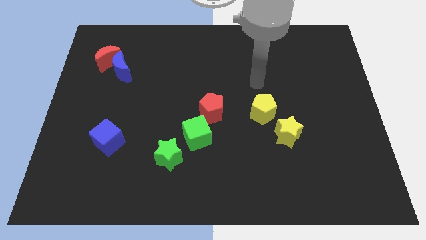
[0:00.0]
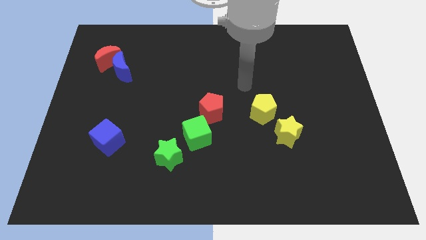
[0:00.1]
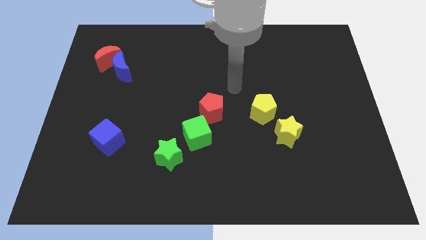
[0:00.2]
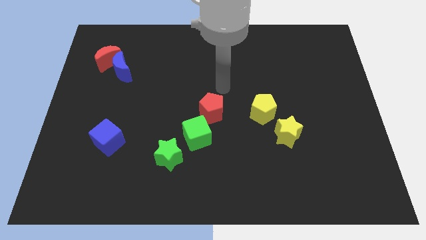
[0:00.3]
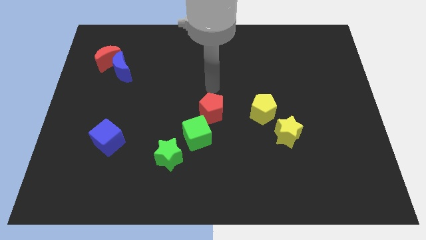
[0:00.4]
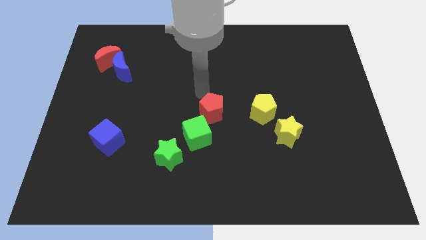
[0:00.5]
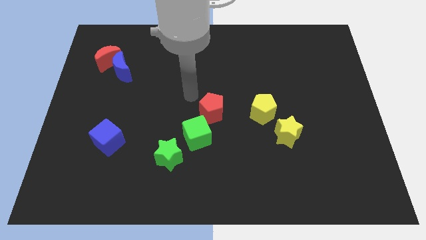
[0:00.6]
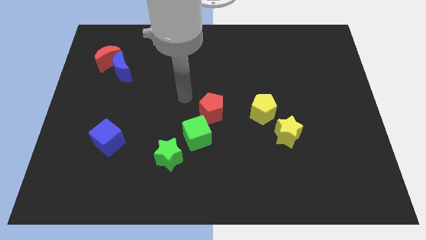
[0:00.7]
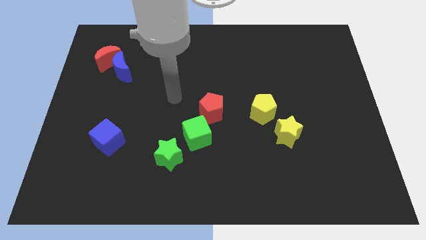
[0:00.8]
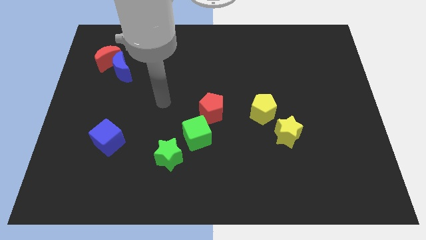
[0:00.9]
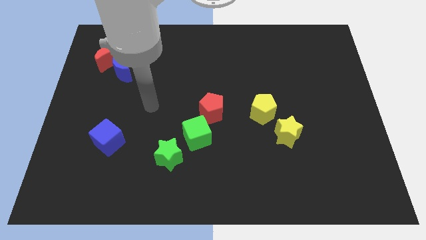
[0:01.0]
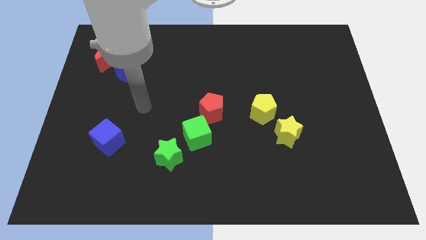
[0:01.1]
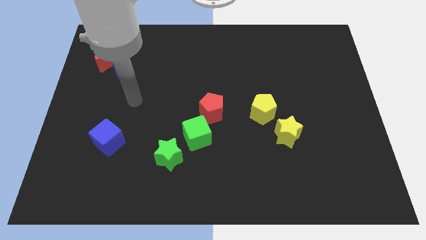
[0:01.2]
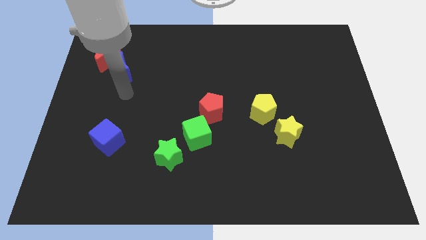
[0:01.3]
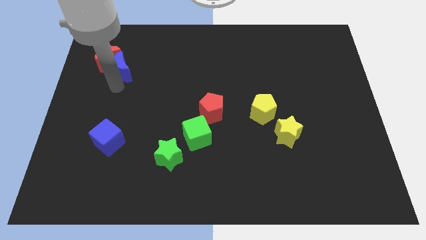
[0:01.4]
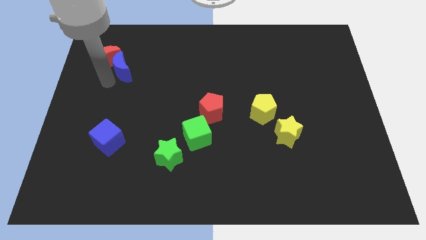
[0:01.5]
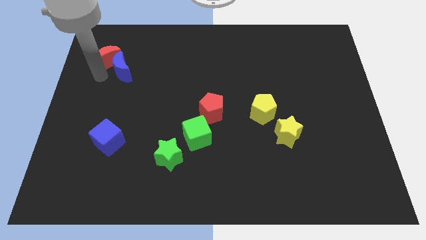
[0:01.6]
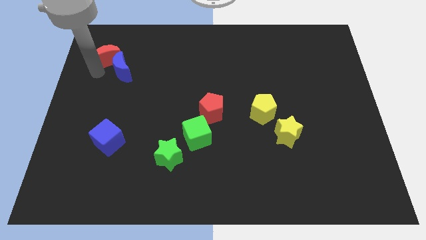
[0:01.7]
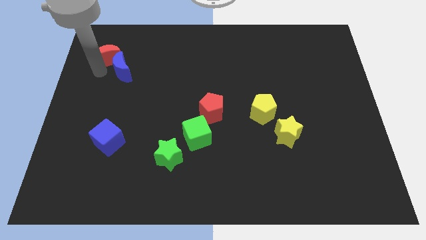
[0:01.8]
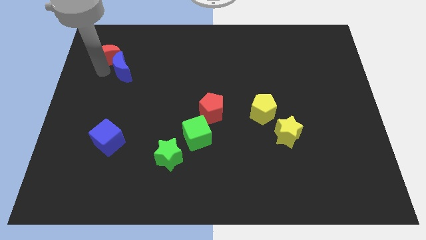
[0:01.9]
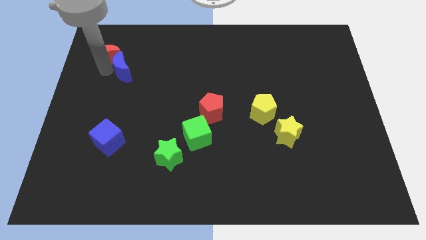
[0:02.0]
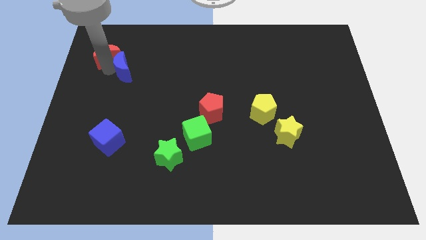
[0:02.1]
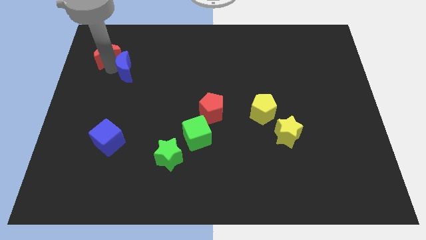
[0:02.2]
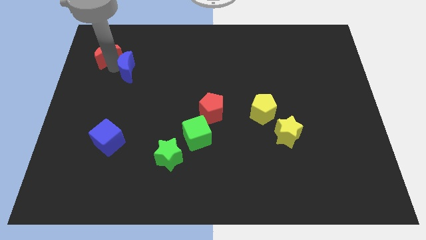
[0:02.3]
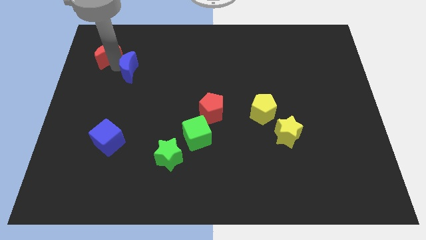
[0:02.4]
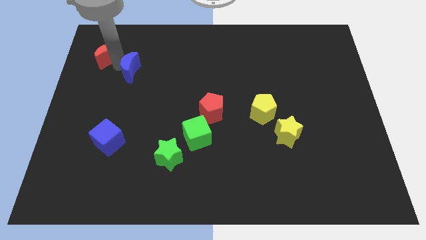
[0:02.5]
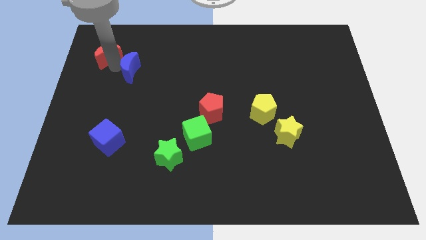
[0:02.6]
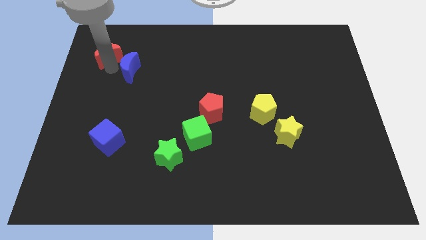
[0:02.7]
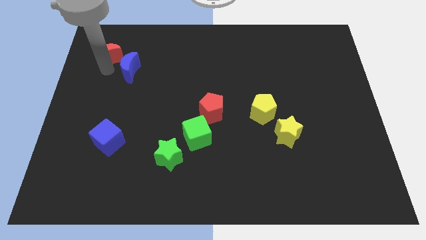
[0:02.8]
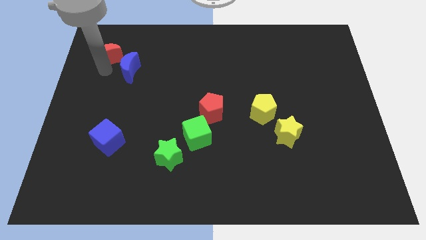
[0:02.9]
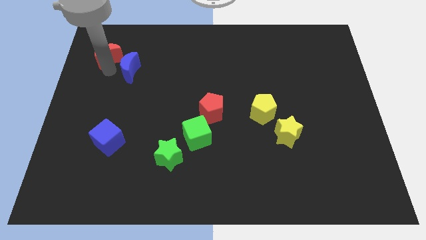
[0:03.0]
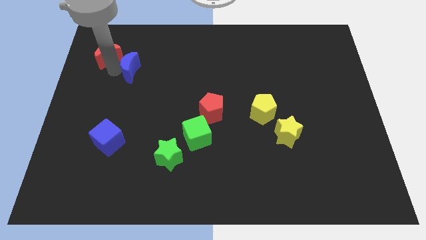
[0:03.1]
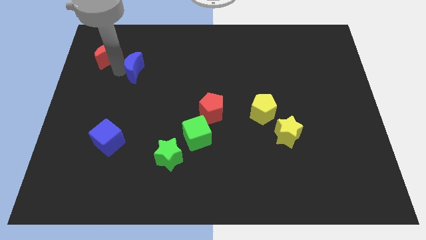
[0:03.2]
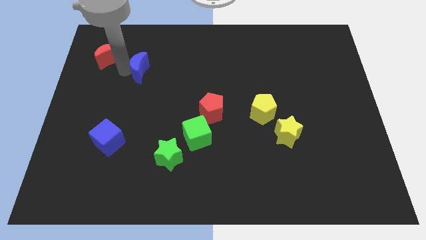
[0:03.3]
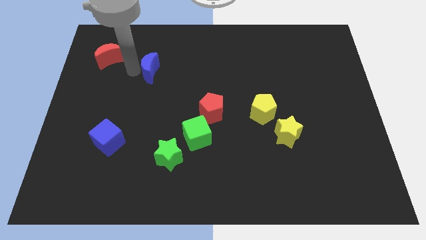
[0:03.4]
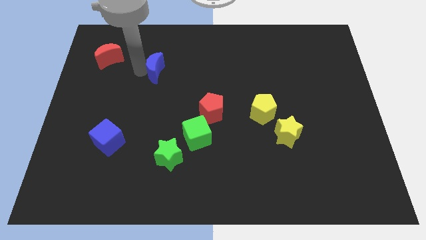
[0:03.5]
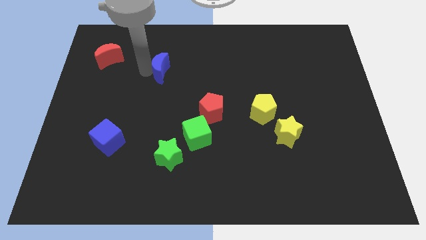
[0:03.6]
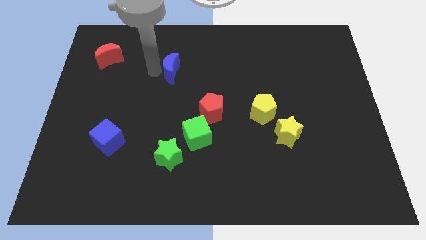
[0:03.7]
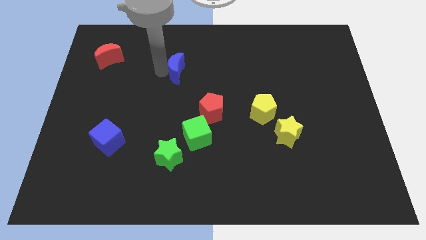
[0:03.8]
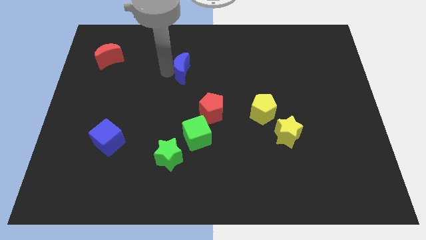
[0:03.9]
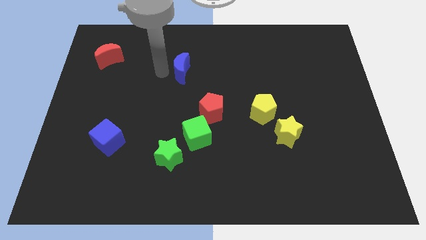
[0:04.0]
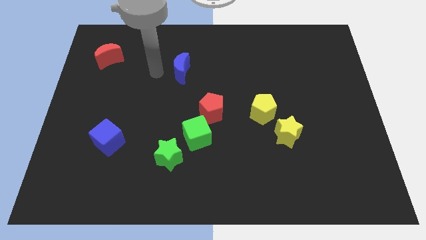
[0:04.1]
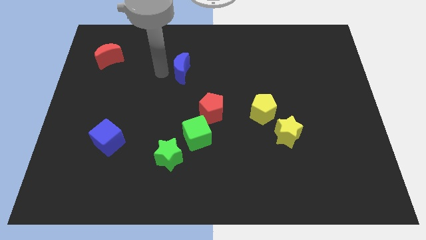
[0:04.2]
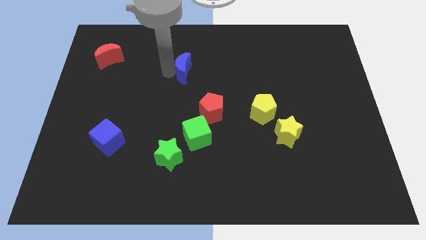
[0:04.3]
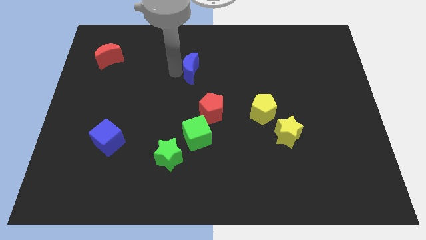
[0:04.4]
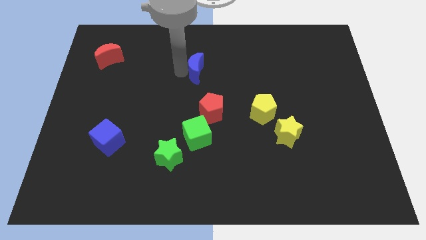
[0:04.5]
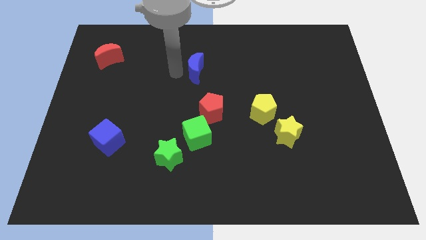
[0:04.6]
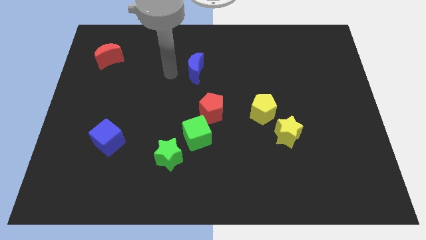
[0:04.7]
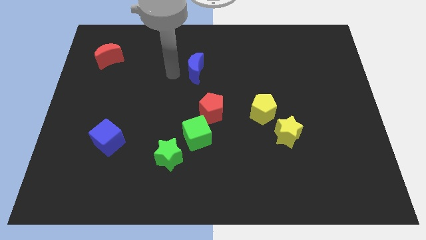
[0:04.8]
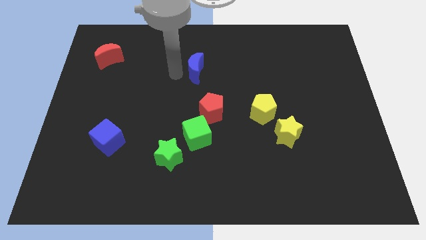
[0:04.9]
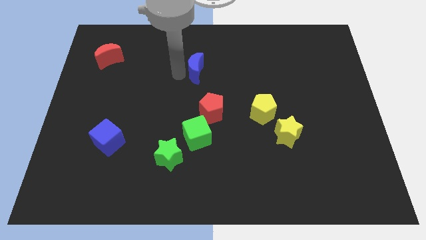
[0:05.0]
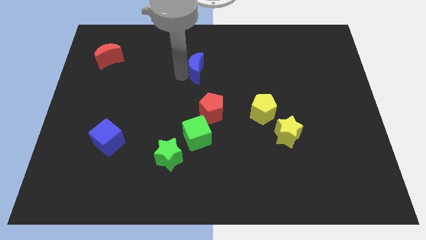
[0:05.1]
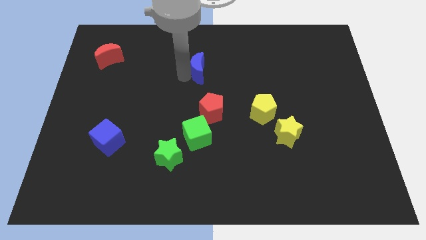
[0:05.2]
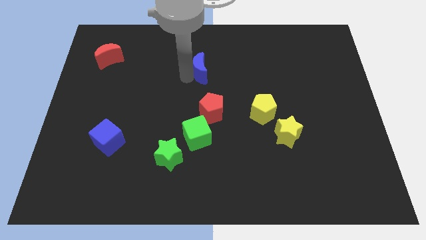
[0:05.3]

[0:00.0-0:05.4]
slide the blue moon to the right

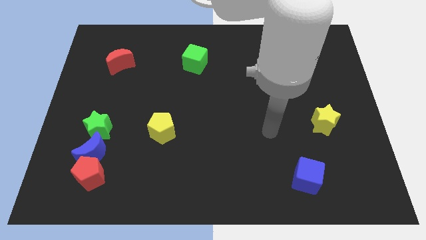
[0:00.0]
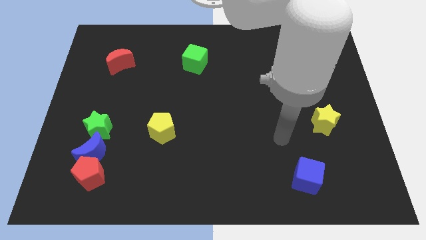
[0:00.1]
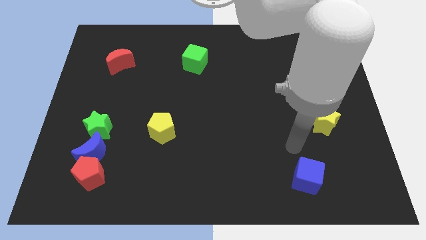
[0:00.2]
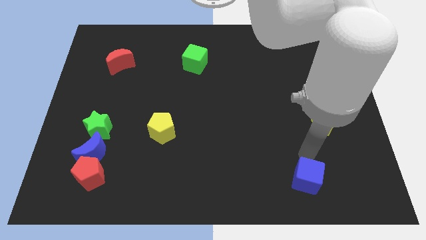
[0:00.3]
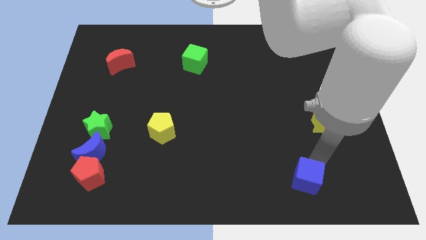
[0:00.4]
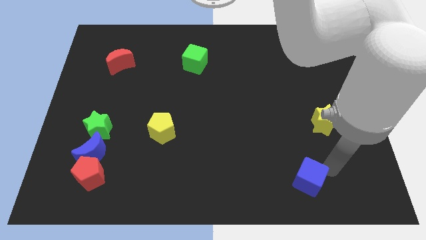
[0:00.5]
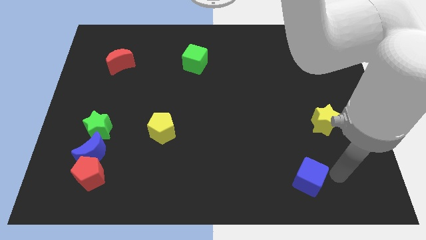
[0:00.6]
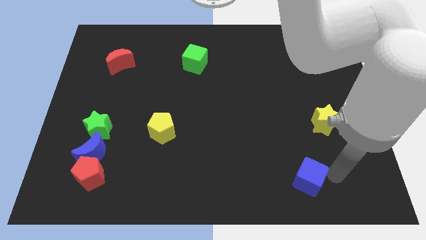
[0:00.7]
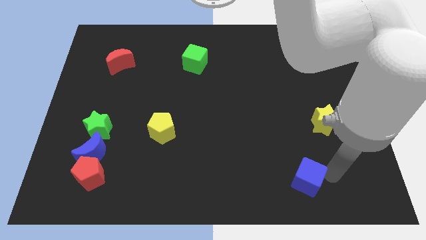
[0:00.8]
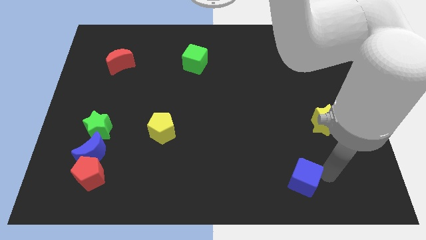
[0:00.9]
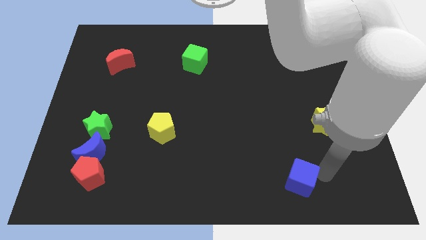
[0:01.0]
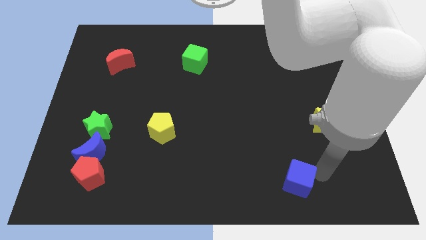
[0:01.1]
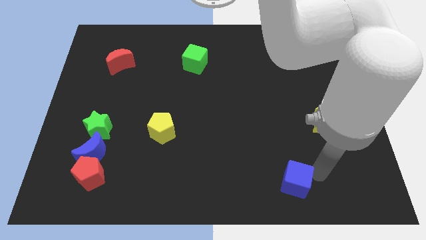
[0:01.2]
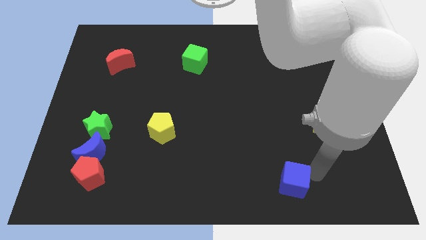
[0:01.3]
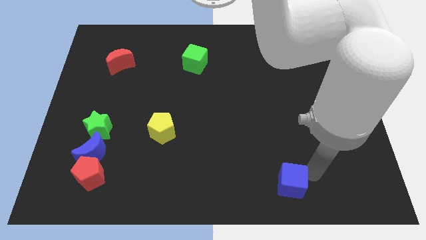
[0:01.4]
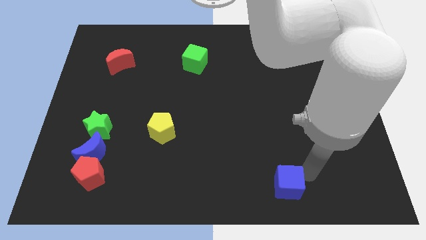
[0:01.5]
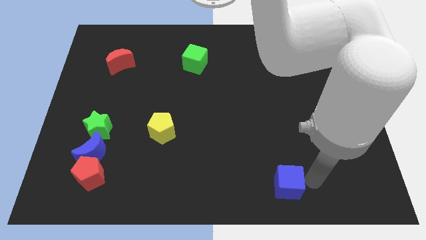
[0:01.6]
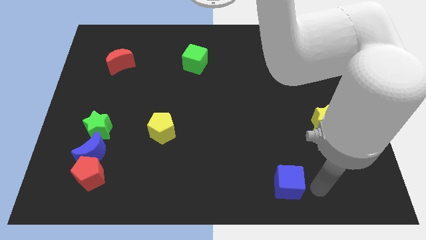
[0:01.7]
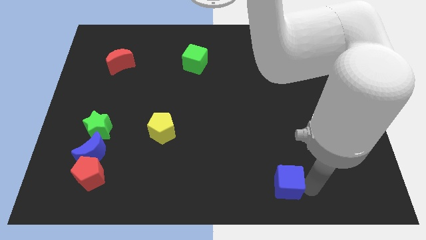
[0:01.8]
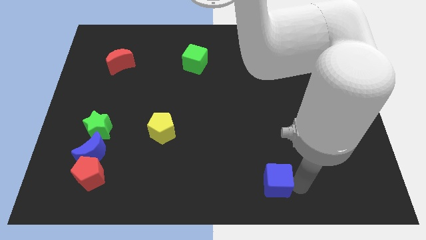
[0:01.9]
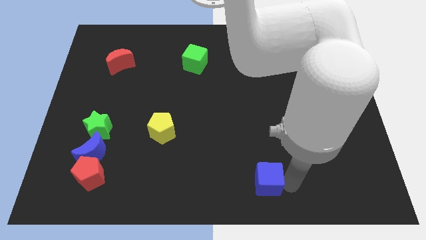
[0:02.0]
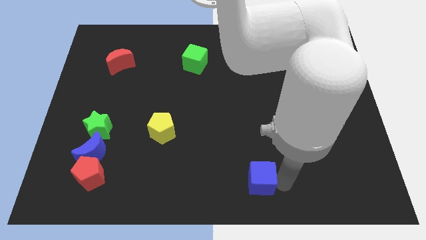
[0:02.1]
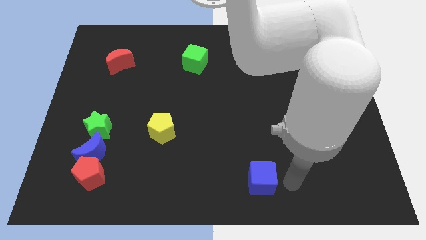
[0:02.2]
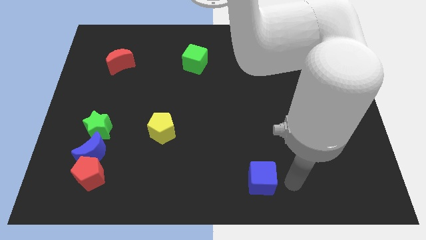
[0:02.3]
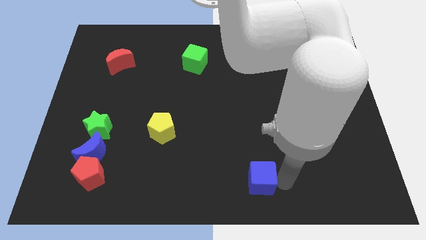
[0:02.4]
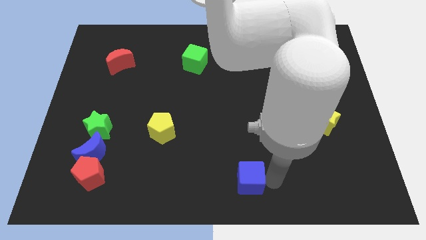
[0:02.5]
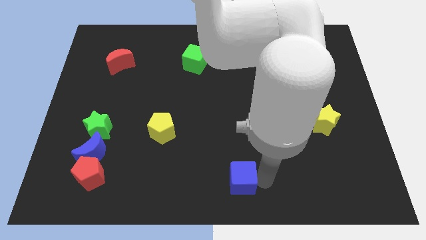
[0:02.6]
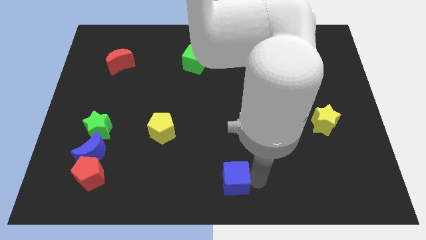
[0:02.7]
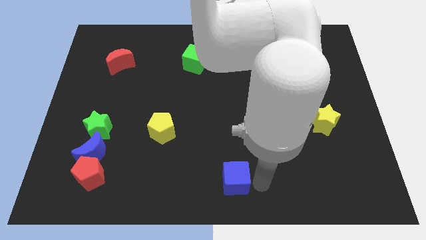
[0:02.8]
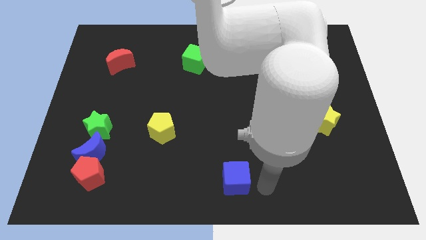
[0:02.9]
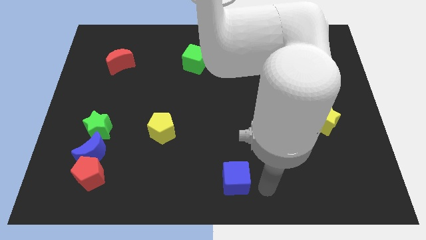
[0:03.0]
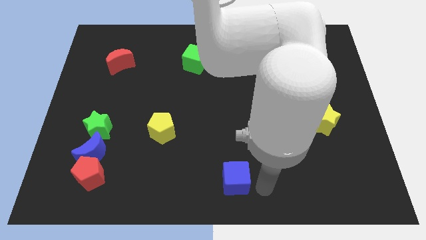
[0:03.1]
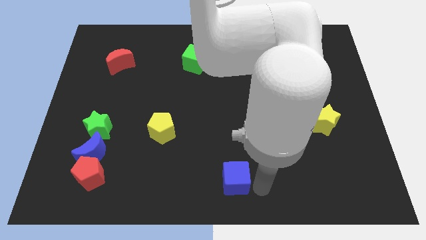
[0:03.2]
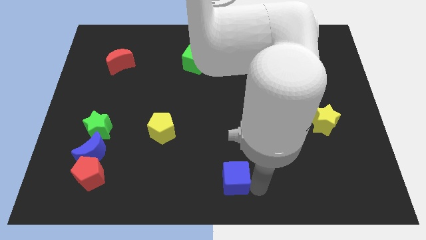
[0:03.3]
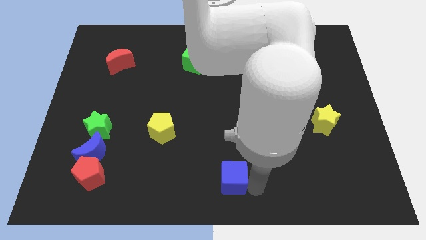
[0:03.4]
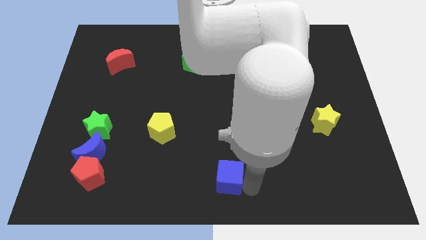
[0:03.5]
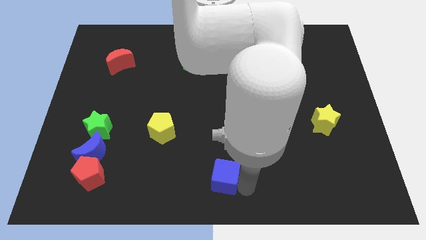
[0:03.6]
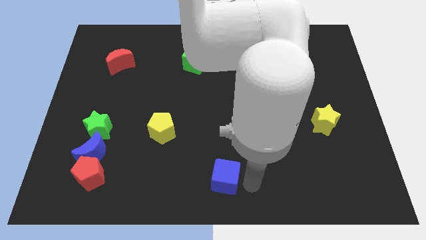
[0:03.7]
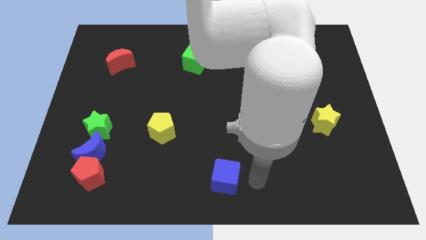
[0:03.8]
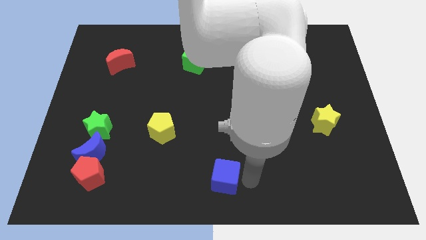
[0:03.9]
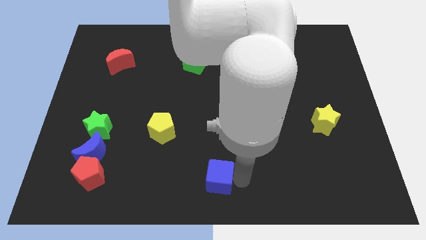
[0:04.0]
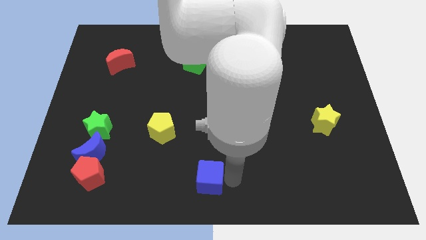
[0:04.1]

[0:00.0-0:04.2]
push the blue cube left
